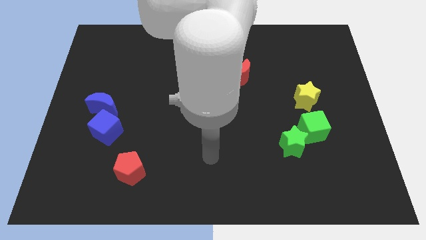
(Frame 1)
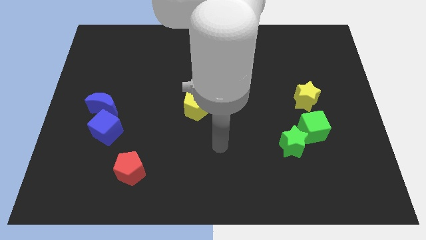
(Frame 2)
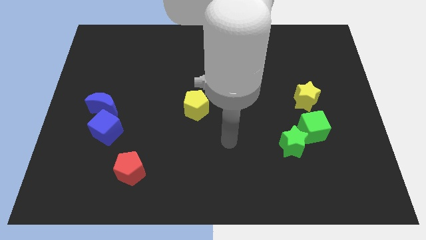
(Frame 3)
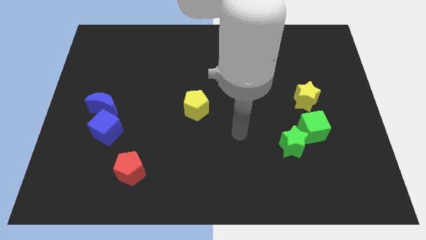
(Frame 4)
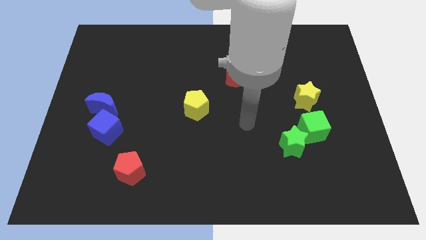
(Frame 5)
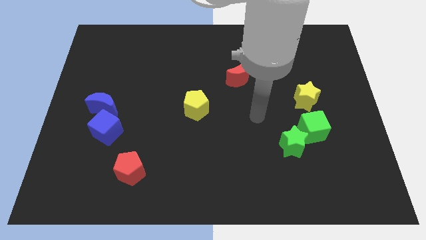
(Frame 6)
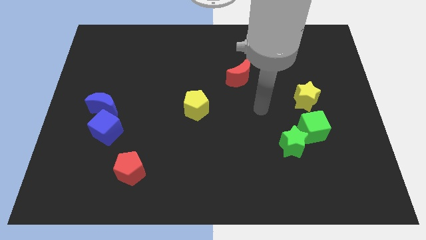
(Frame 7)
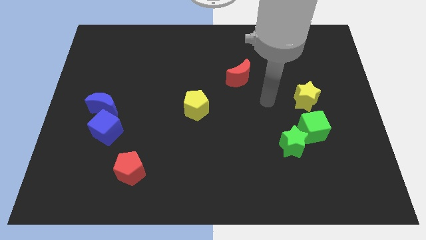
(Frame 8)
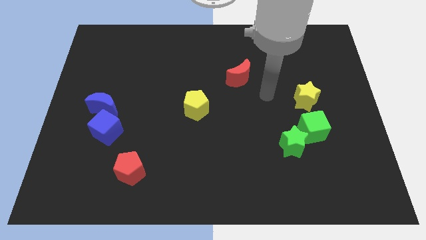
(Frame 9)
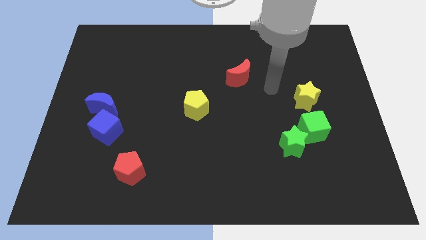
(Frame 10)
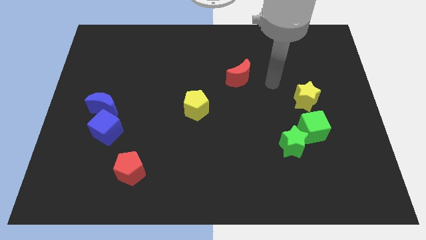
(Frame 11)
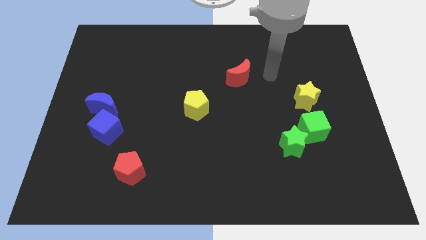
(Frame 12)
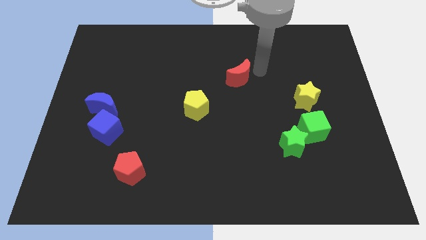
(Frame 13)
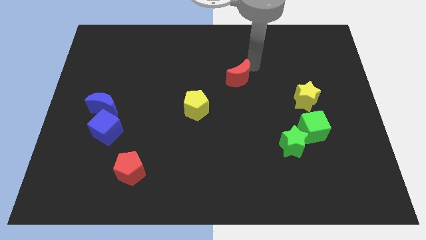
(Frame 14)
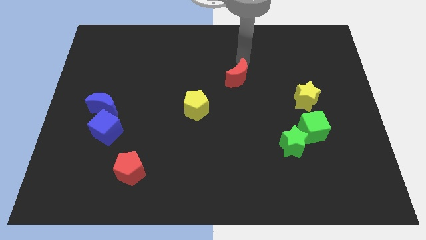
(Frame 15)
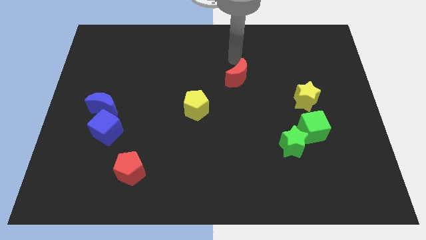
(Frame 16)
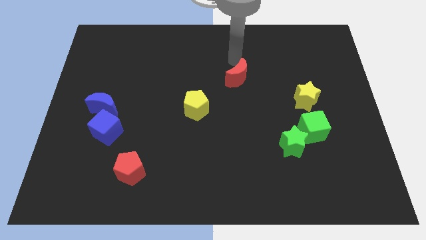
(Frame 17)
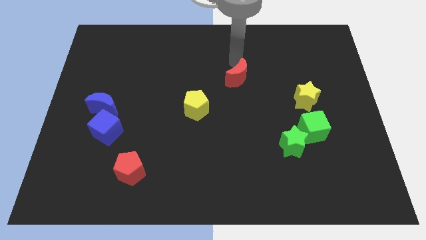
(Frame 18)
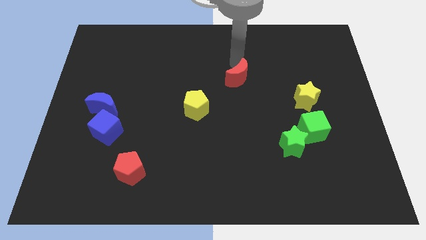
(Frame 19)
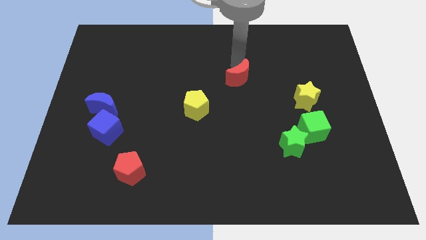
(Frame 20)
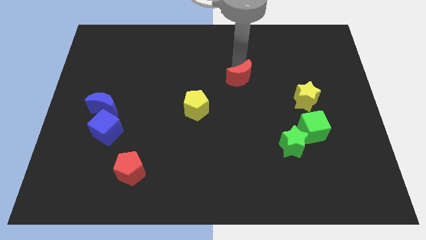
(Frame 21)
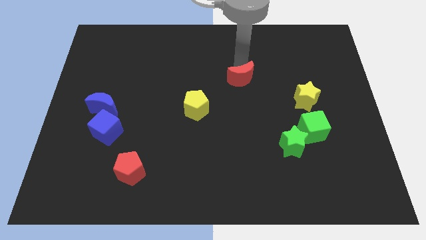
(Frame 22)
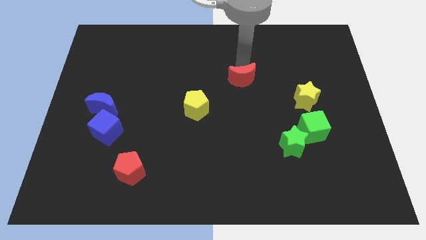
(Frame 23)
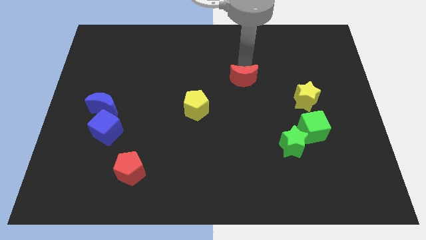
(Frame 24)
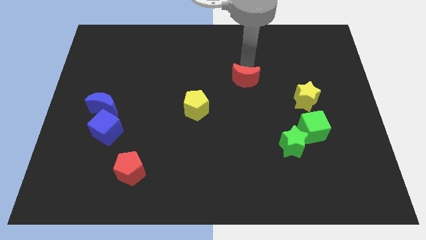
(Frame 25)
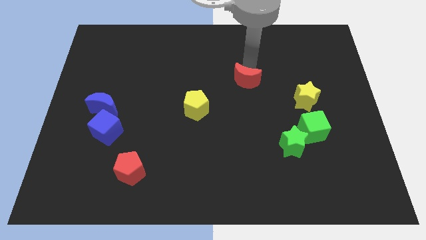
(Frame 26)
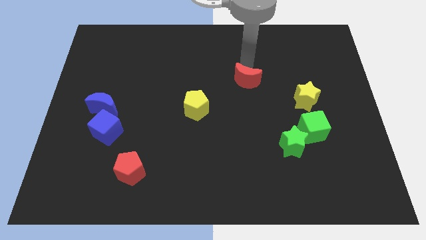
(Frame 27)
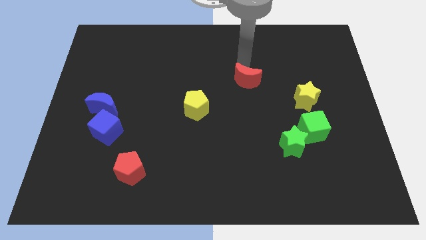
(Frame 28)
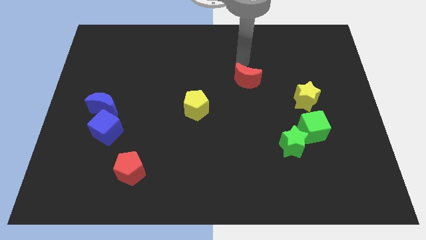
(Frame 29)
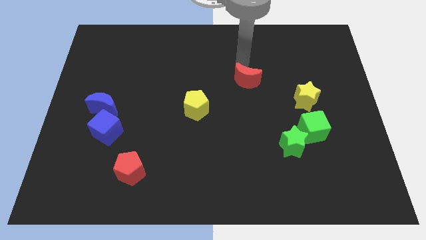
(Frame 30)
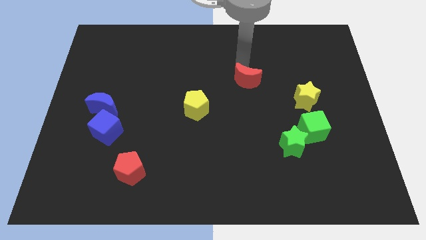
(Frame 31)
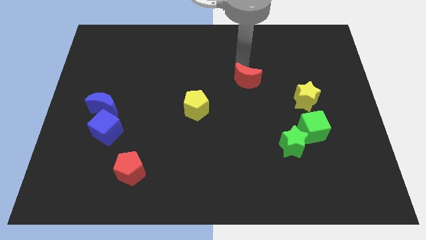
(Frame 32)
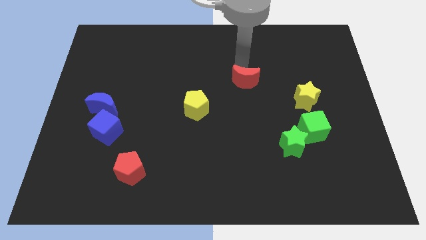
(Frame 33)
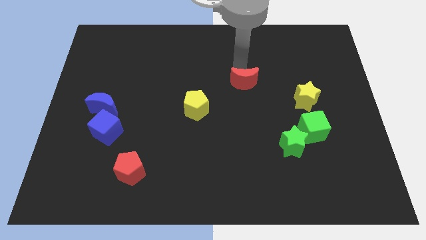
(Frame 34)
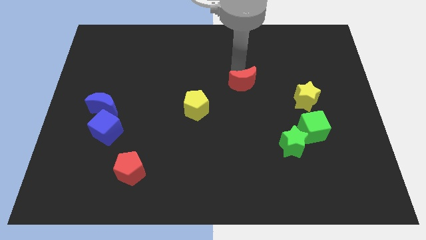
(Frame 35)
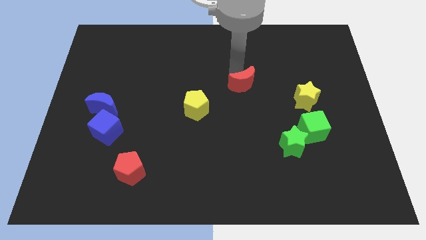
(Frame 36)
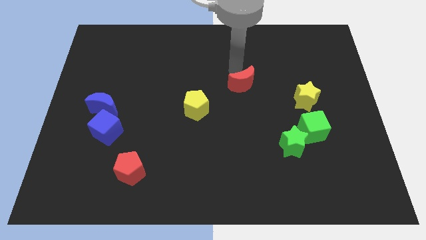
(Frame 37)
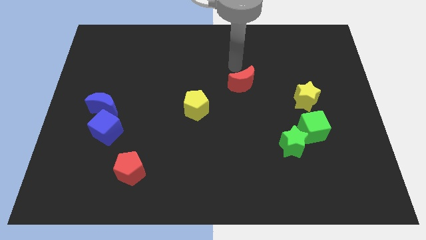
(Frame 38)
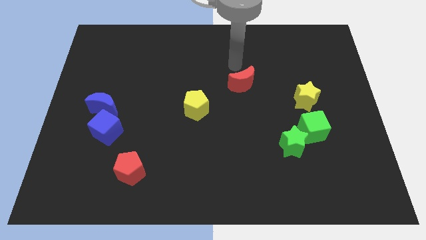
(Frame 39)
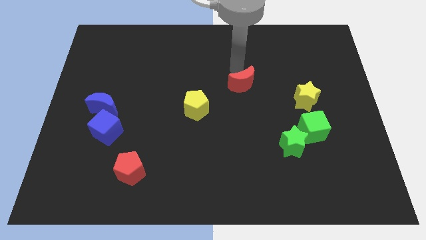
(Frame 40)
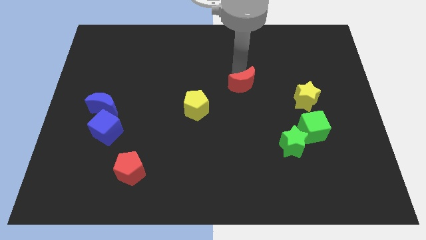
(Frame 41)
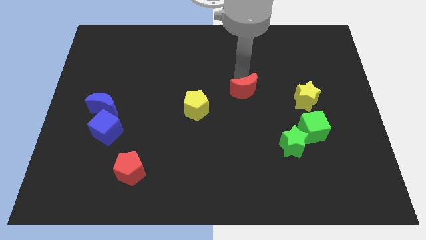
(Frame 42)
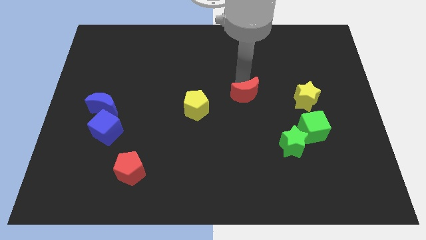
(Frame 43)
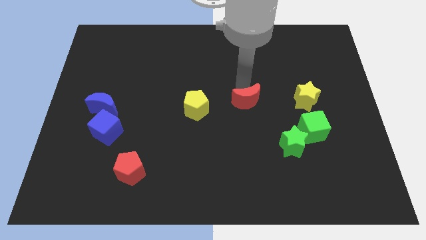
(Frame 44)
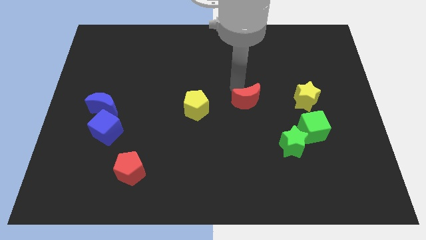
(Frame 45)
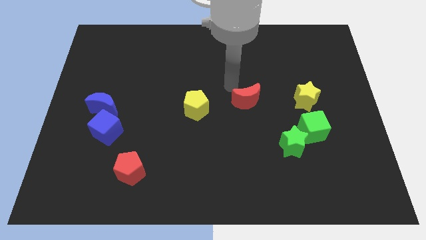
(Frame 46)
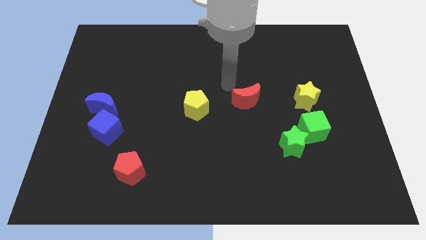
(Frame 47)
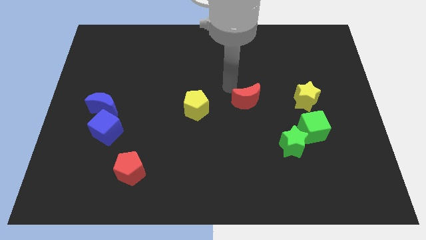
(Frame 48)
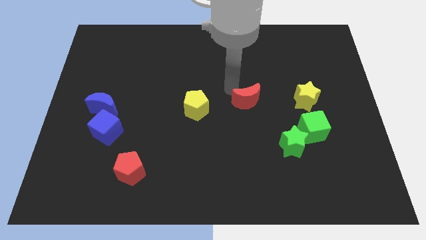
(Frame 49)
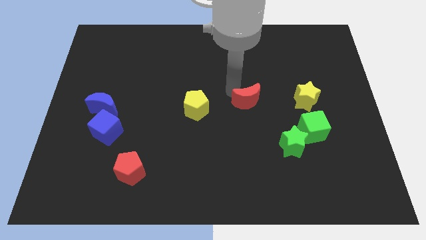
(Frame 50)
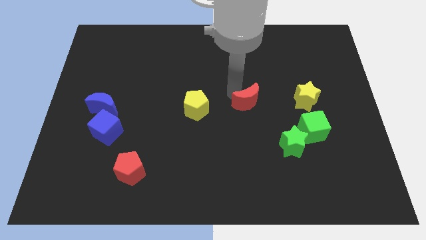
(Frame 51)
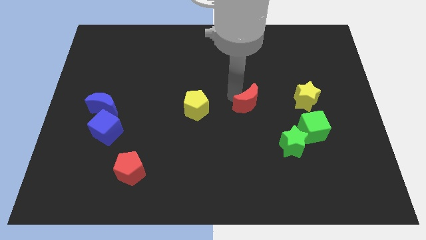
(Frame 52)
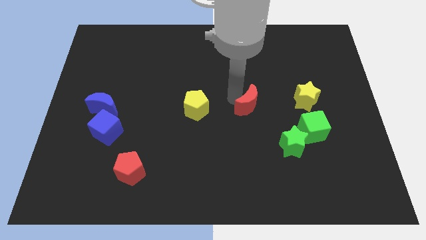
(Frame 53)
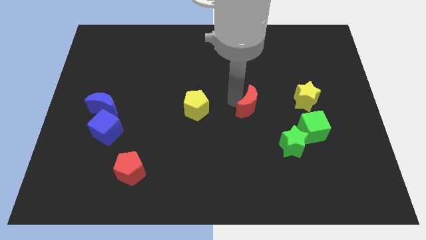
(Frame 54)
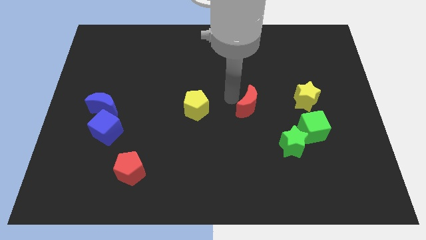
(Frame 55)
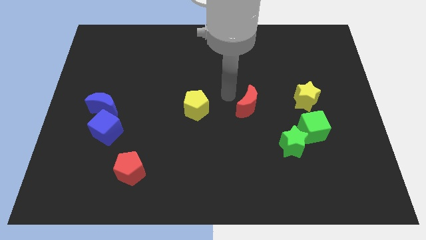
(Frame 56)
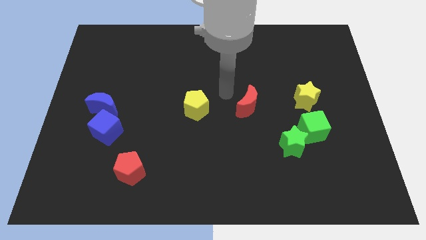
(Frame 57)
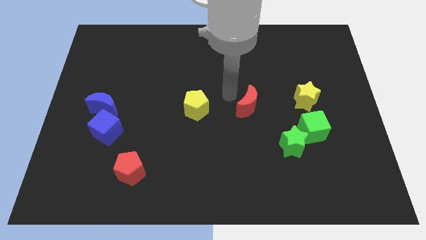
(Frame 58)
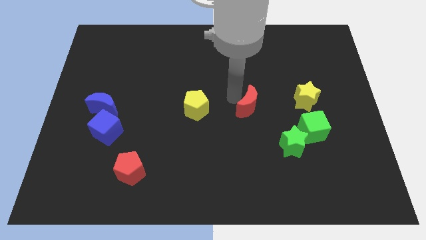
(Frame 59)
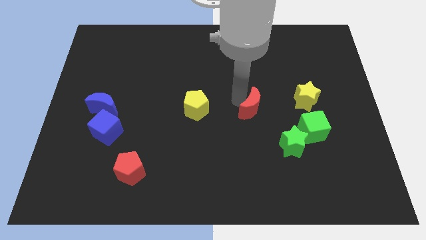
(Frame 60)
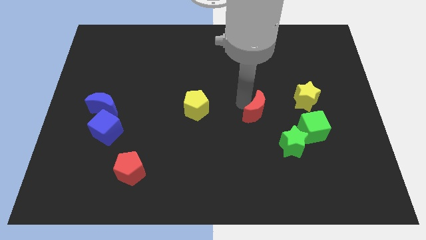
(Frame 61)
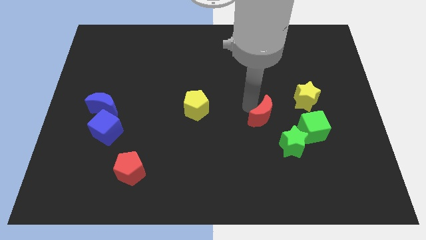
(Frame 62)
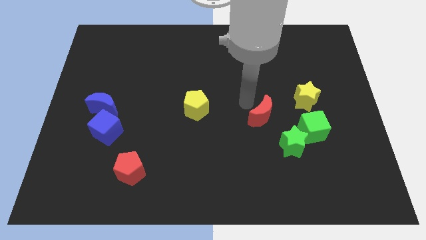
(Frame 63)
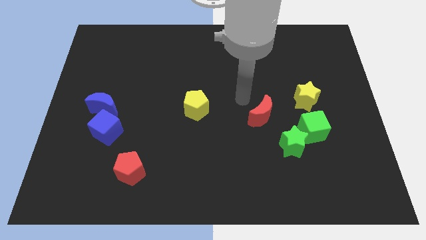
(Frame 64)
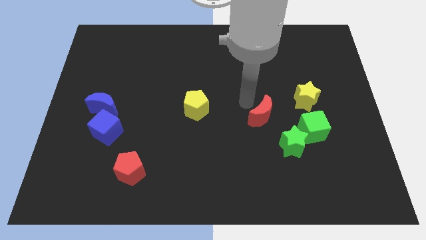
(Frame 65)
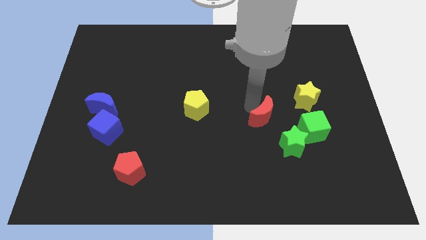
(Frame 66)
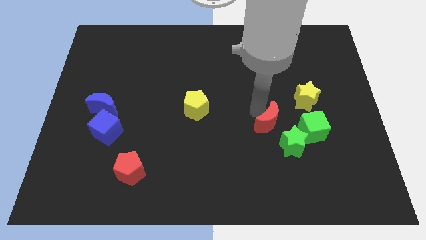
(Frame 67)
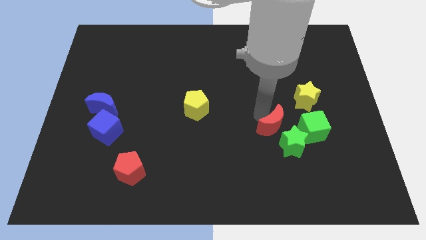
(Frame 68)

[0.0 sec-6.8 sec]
push the red moon close to the green star

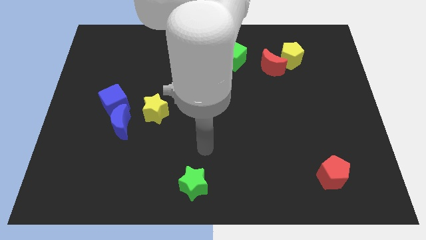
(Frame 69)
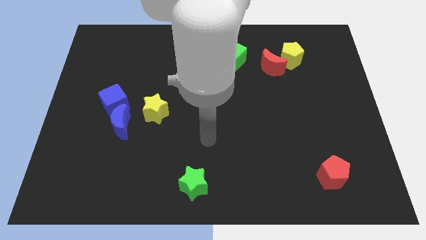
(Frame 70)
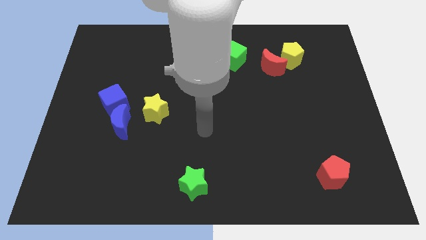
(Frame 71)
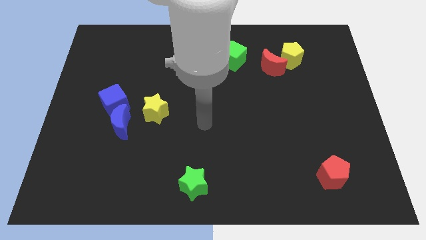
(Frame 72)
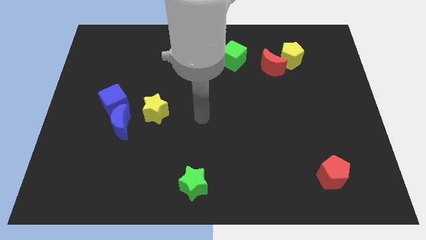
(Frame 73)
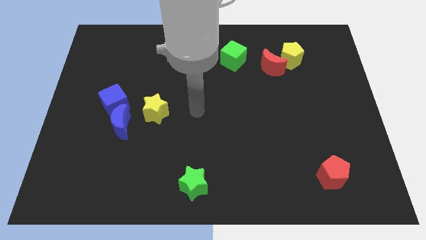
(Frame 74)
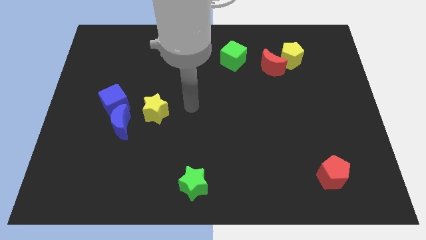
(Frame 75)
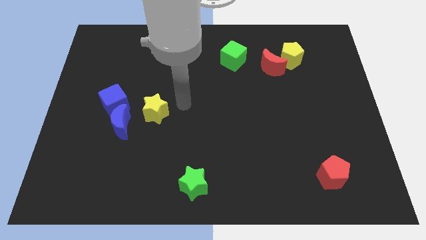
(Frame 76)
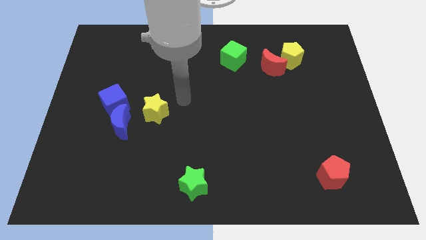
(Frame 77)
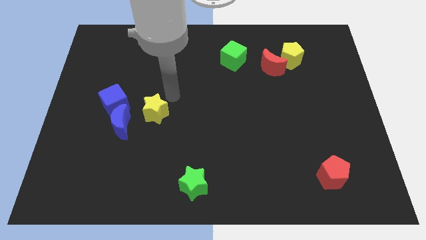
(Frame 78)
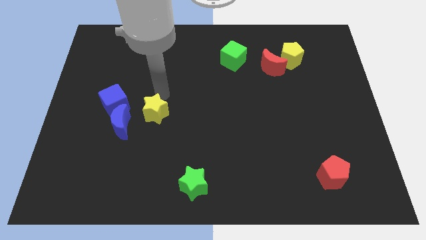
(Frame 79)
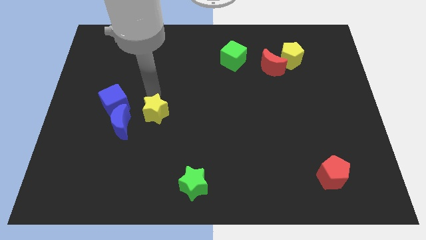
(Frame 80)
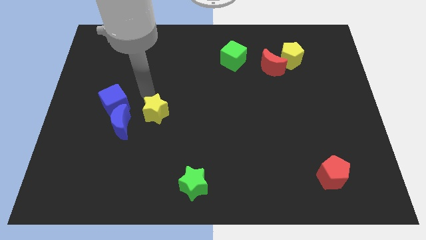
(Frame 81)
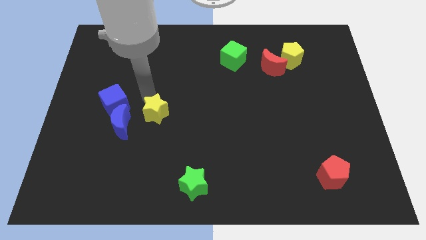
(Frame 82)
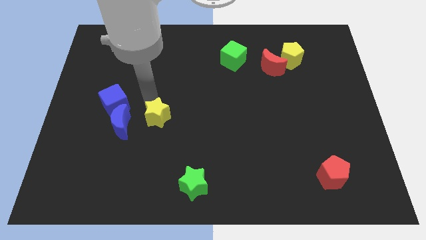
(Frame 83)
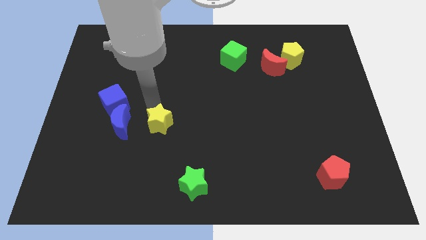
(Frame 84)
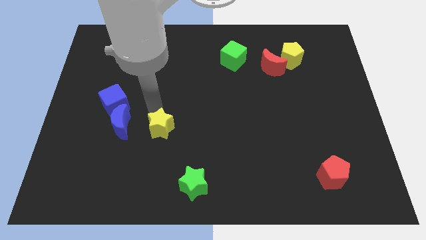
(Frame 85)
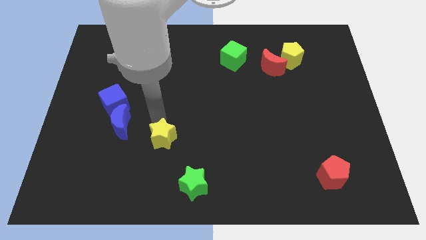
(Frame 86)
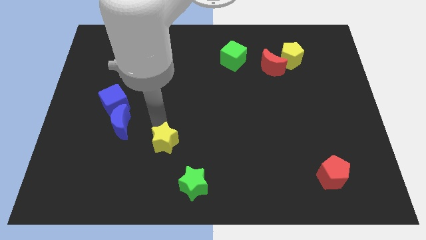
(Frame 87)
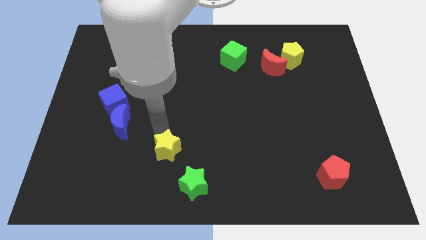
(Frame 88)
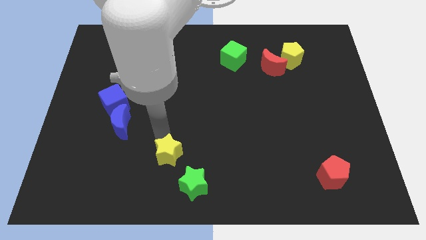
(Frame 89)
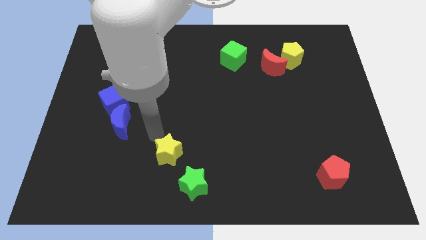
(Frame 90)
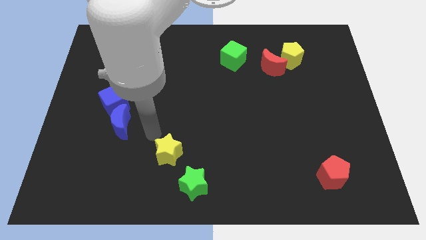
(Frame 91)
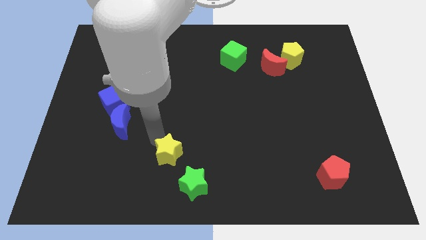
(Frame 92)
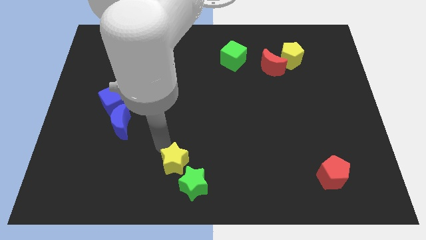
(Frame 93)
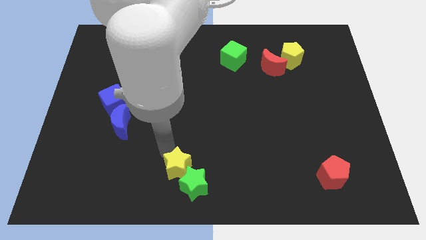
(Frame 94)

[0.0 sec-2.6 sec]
slide the yellow star towards the green star
